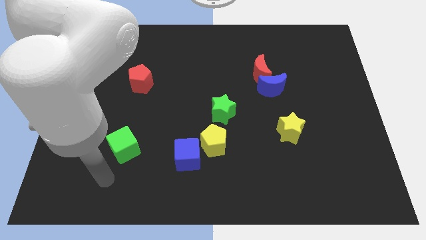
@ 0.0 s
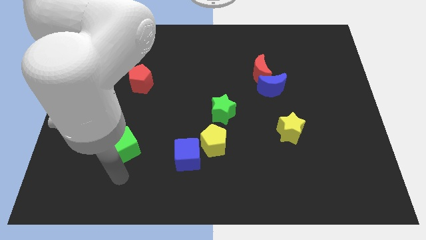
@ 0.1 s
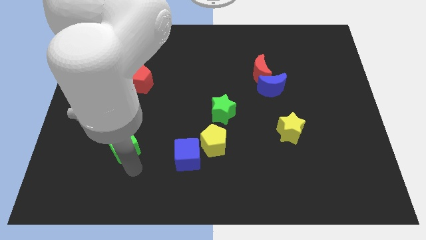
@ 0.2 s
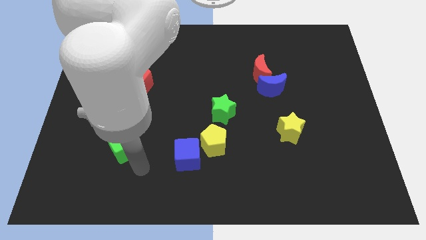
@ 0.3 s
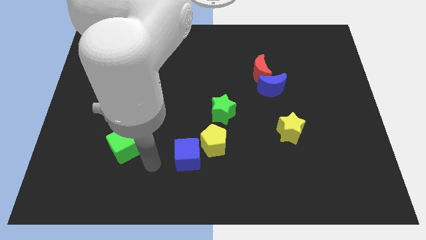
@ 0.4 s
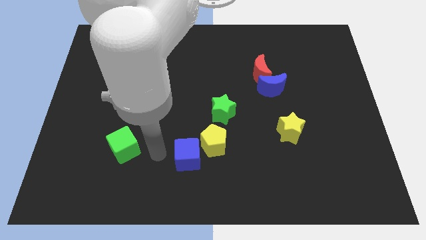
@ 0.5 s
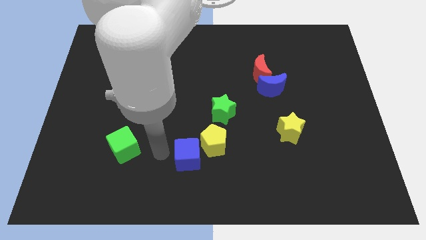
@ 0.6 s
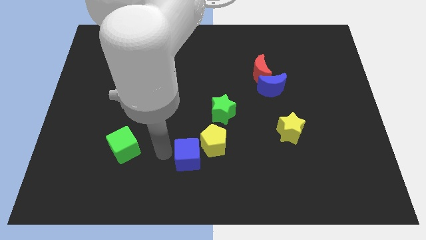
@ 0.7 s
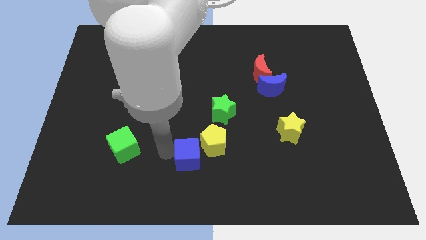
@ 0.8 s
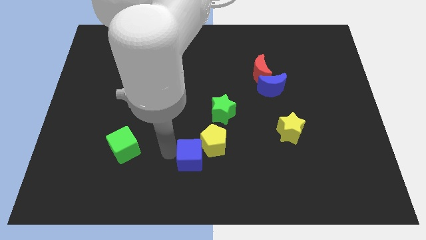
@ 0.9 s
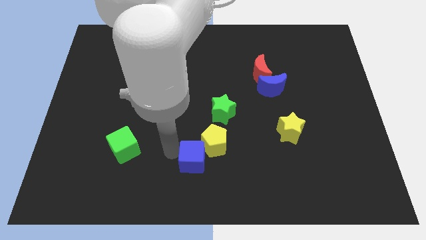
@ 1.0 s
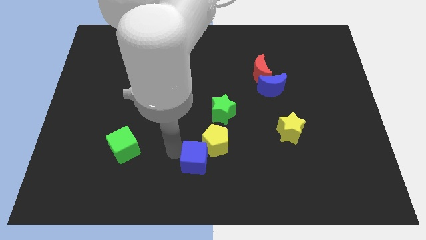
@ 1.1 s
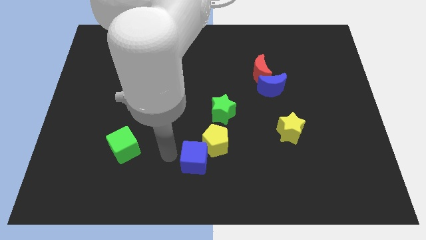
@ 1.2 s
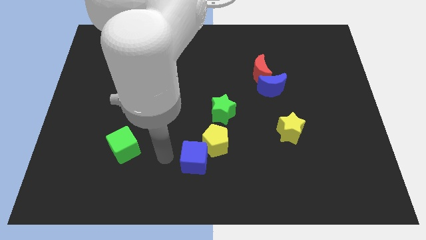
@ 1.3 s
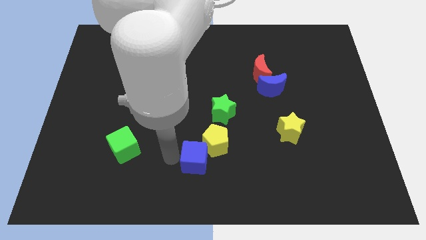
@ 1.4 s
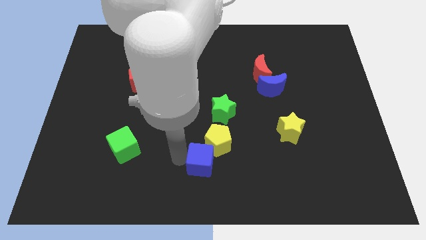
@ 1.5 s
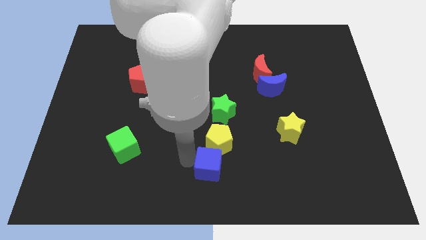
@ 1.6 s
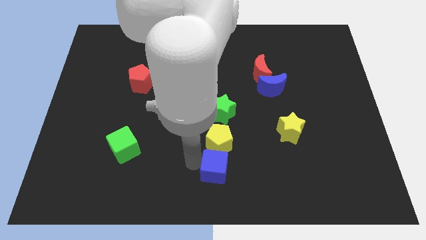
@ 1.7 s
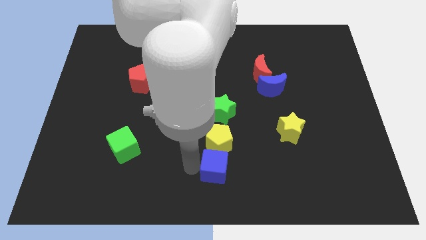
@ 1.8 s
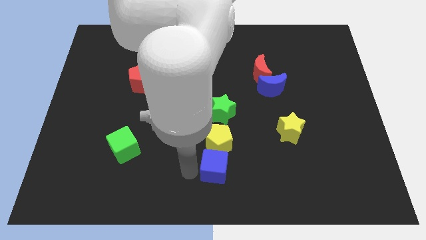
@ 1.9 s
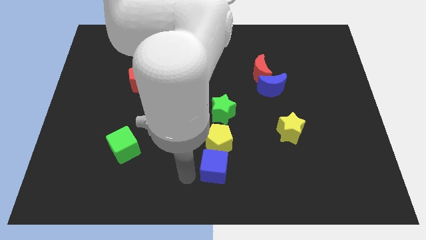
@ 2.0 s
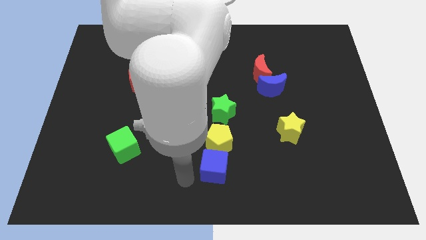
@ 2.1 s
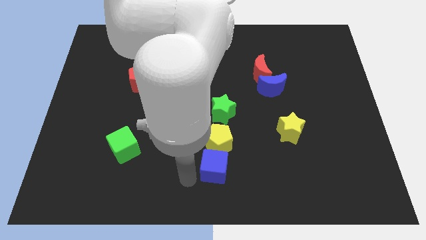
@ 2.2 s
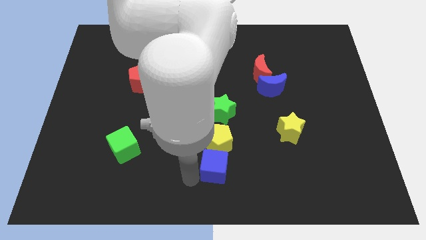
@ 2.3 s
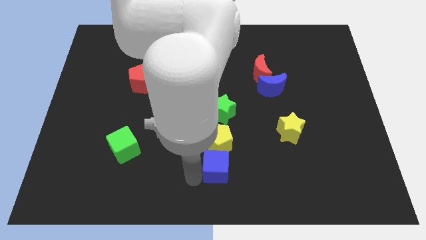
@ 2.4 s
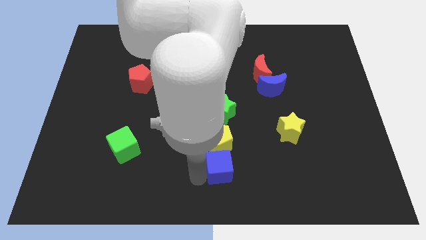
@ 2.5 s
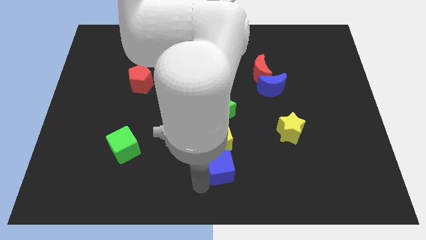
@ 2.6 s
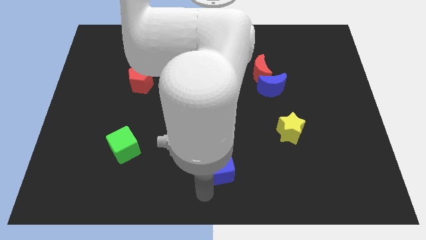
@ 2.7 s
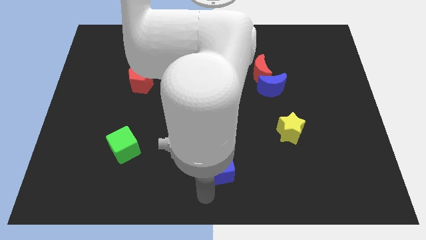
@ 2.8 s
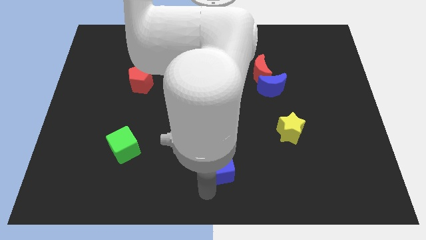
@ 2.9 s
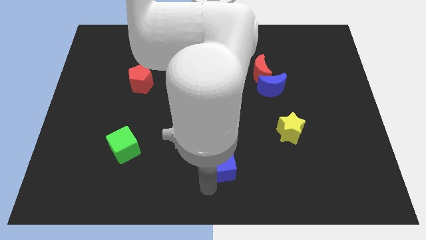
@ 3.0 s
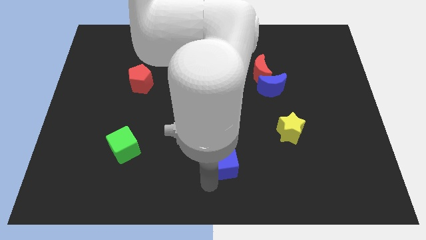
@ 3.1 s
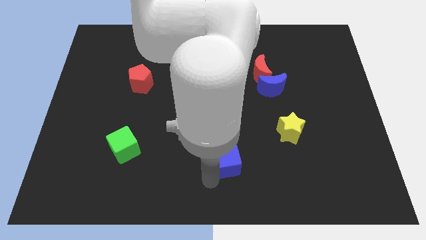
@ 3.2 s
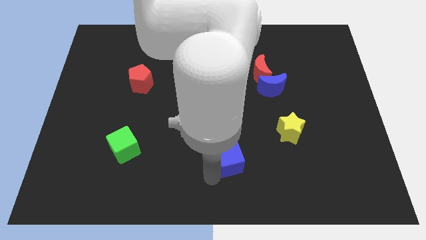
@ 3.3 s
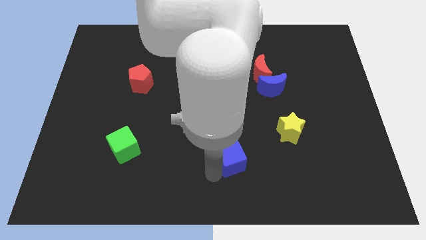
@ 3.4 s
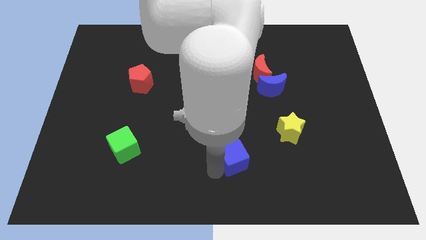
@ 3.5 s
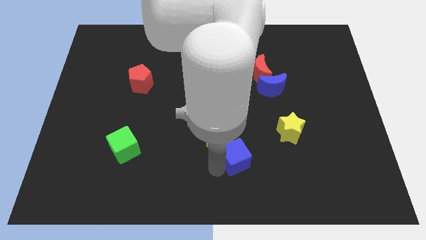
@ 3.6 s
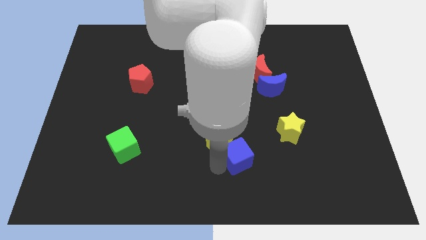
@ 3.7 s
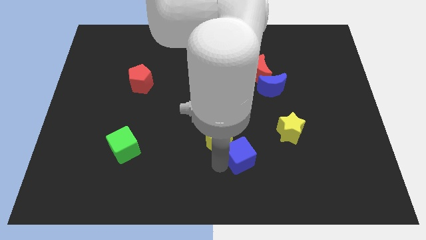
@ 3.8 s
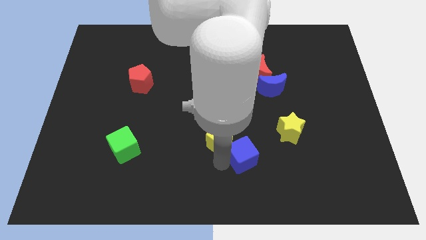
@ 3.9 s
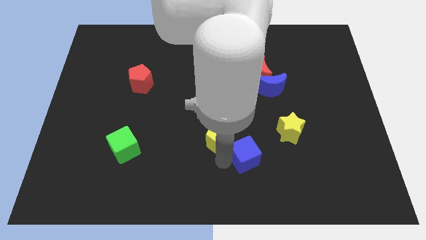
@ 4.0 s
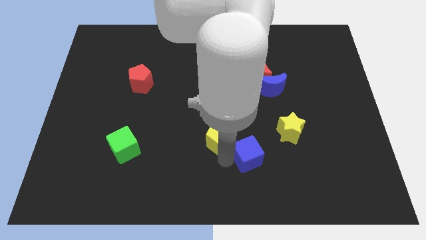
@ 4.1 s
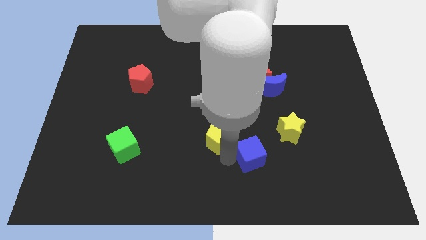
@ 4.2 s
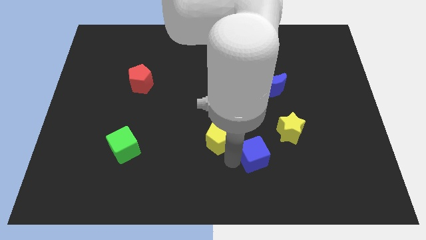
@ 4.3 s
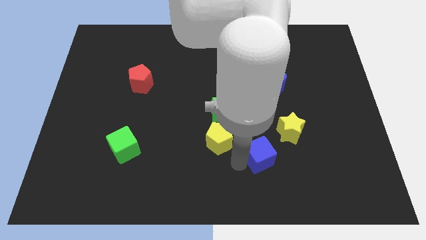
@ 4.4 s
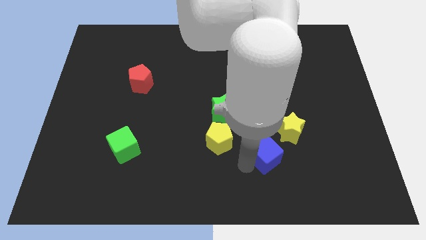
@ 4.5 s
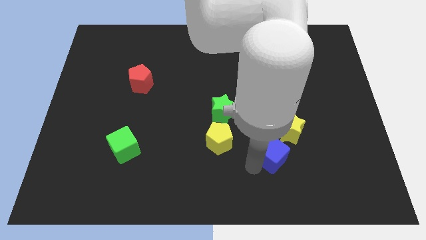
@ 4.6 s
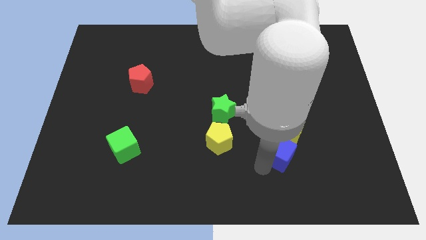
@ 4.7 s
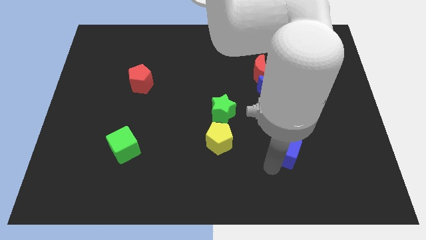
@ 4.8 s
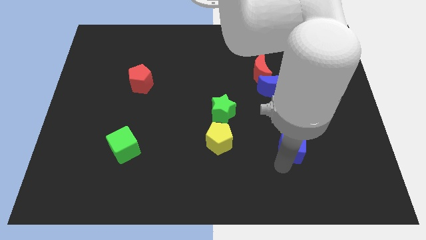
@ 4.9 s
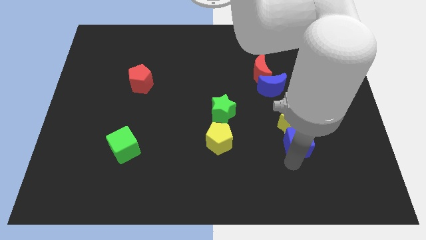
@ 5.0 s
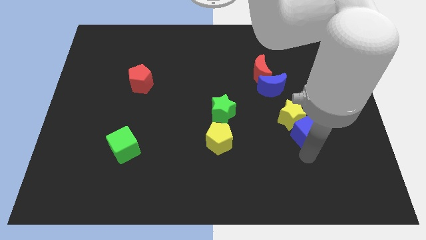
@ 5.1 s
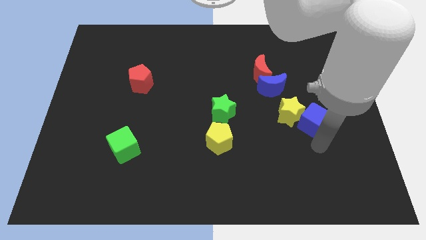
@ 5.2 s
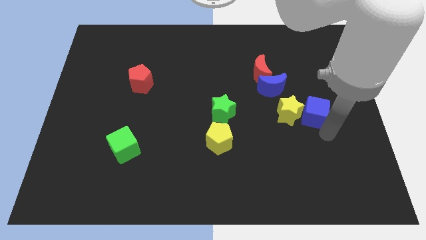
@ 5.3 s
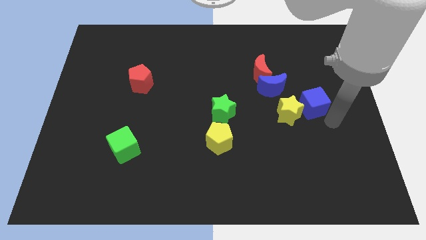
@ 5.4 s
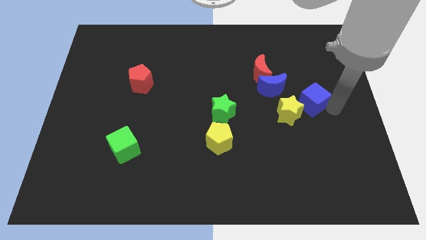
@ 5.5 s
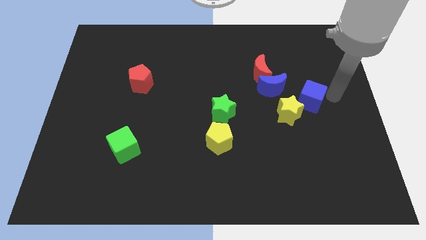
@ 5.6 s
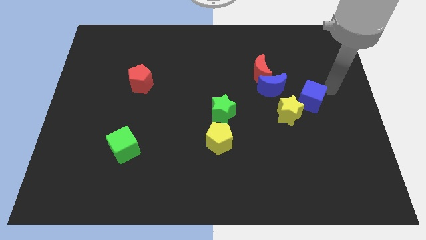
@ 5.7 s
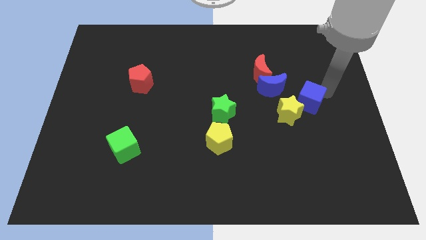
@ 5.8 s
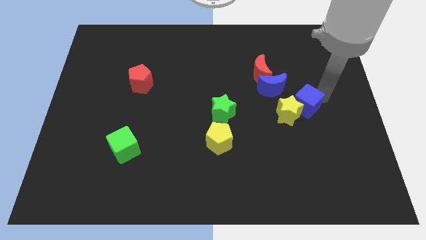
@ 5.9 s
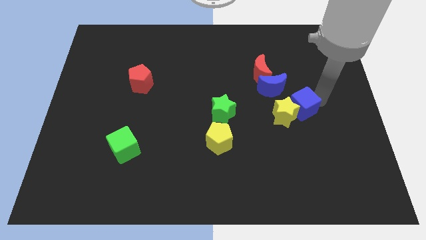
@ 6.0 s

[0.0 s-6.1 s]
slightly move the blue cube upwards and right

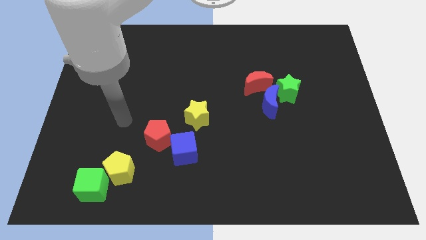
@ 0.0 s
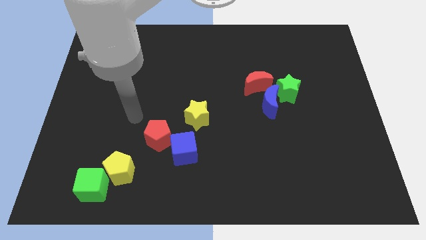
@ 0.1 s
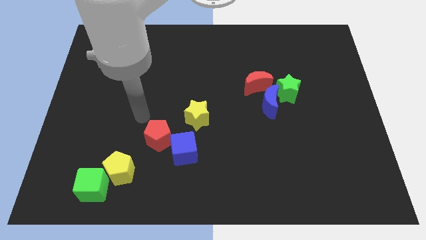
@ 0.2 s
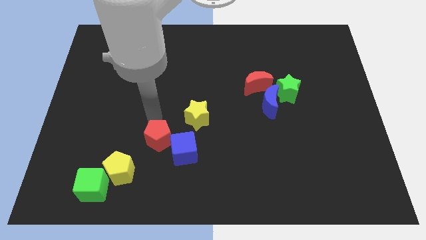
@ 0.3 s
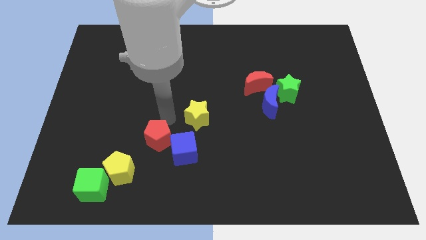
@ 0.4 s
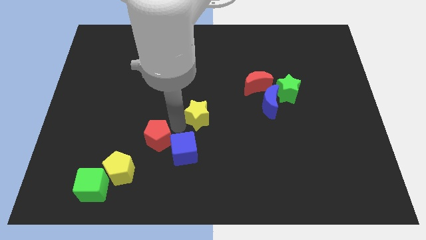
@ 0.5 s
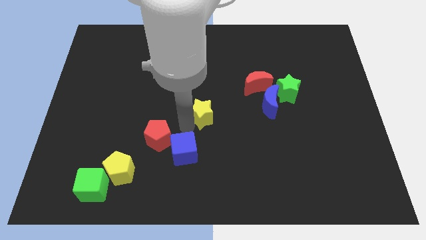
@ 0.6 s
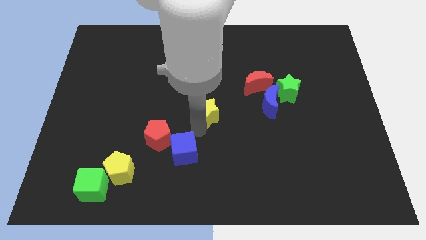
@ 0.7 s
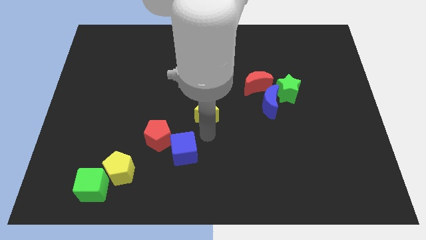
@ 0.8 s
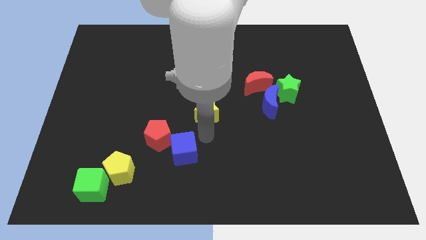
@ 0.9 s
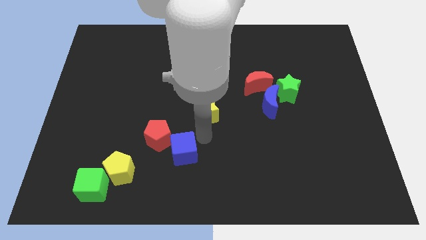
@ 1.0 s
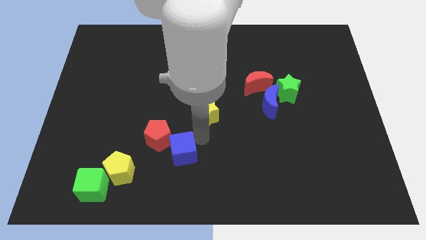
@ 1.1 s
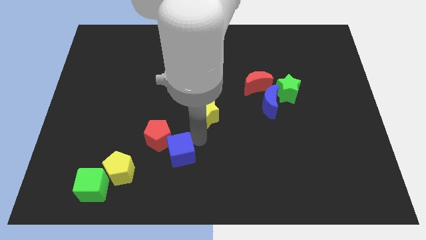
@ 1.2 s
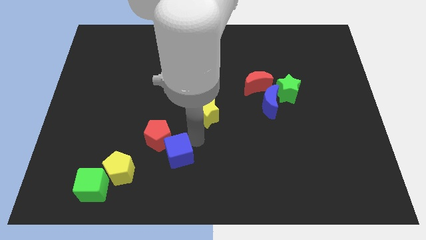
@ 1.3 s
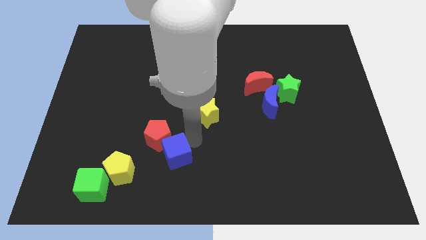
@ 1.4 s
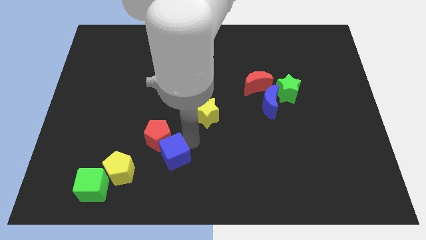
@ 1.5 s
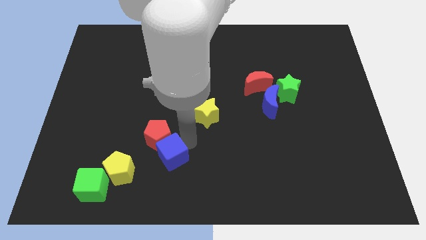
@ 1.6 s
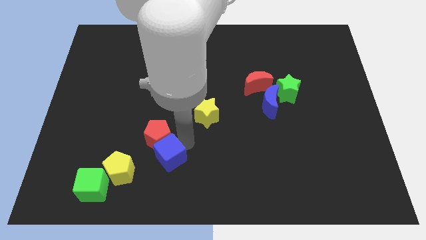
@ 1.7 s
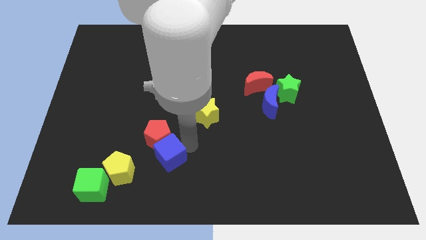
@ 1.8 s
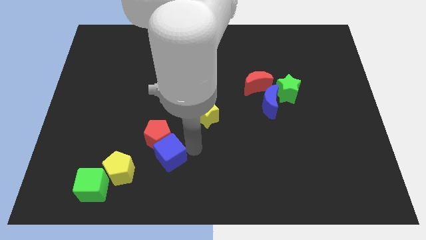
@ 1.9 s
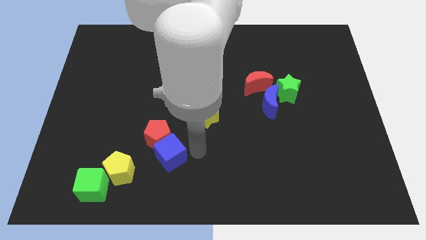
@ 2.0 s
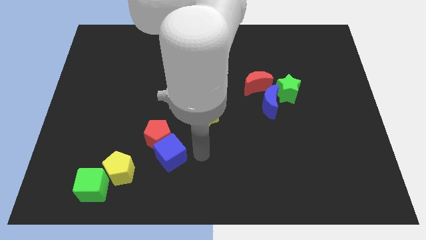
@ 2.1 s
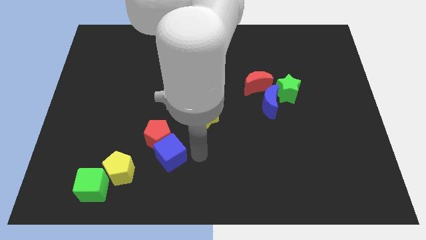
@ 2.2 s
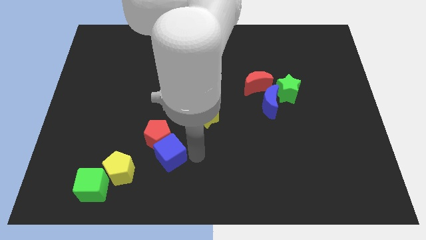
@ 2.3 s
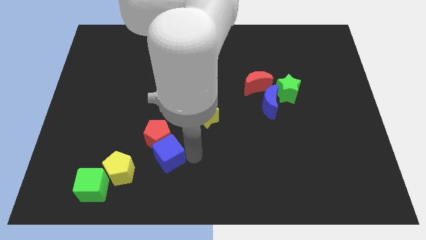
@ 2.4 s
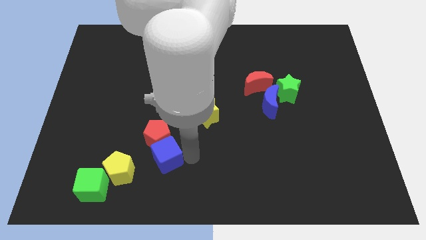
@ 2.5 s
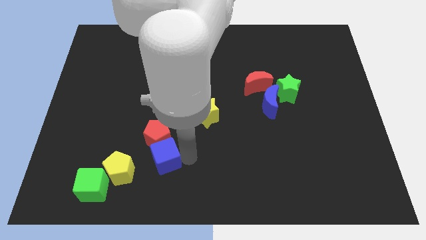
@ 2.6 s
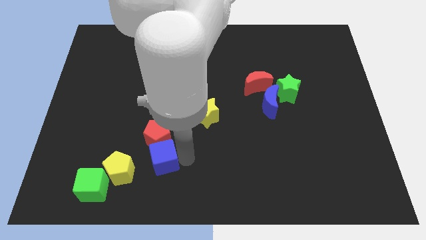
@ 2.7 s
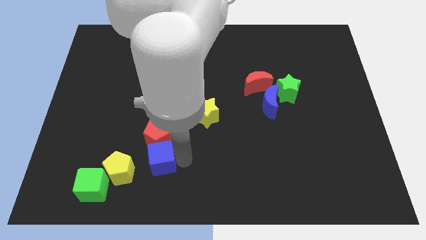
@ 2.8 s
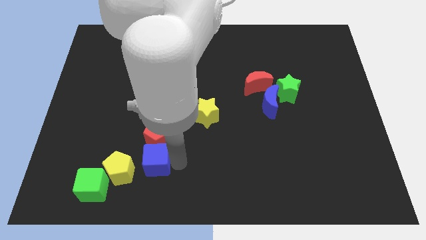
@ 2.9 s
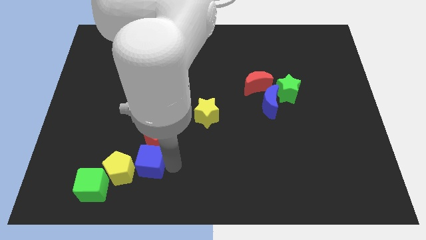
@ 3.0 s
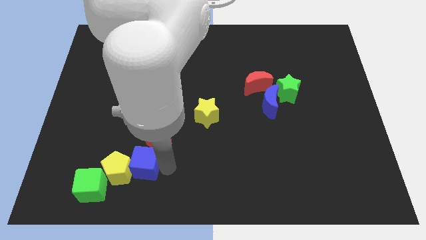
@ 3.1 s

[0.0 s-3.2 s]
move the blue cube left a bit
